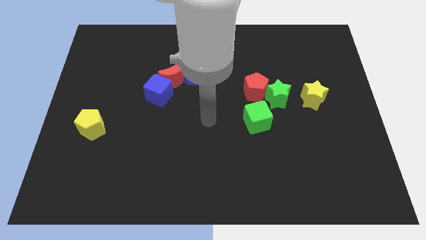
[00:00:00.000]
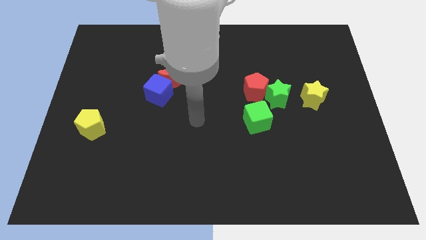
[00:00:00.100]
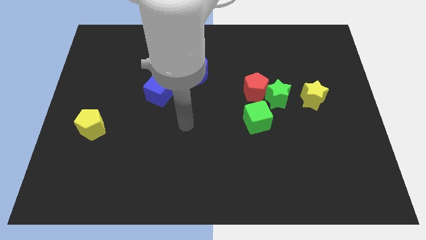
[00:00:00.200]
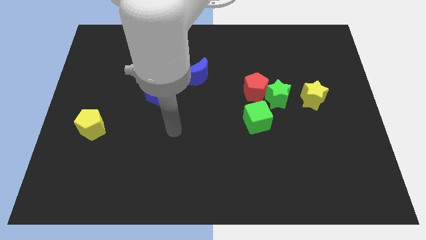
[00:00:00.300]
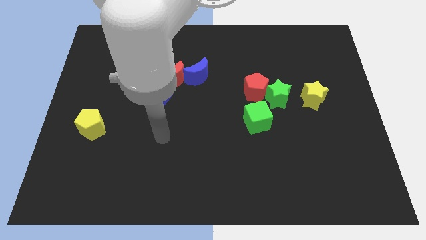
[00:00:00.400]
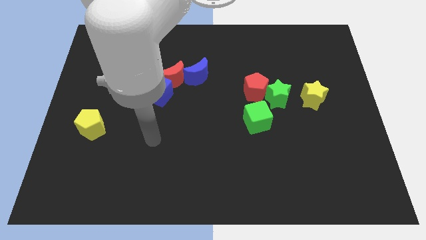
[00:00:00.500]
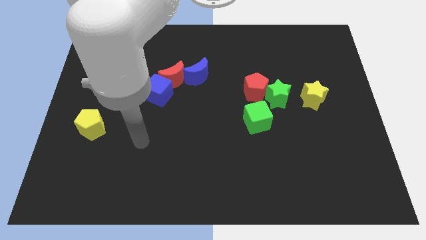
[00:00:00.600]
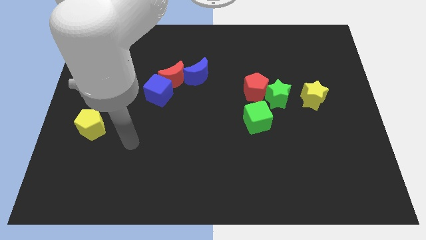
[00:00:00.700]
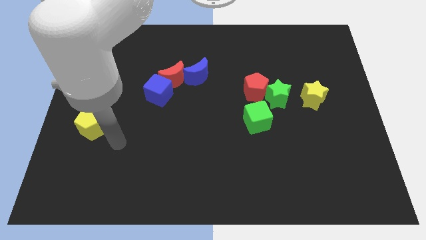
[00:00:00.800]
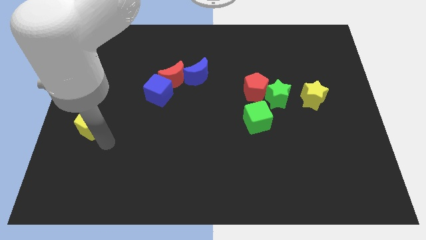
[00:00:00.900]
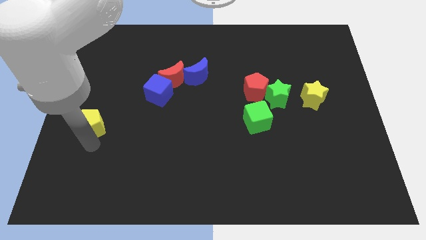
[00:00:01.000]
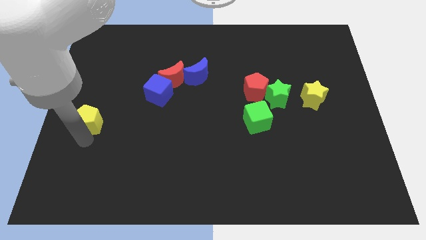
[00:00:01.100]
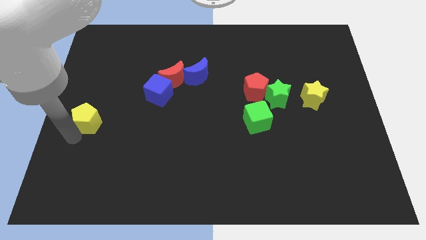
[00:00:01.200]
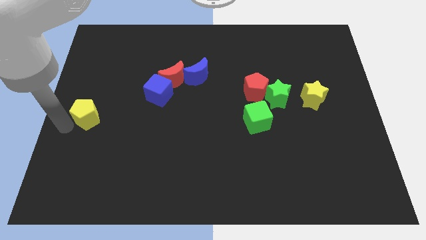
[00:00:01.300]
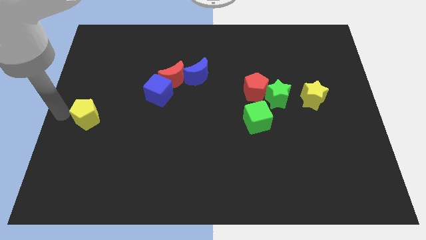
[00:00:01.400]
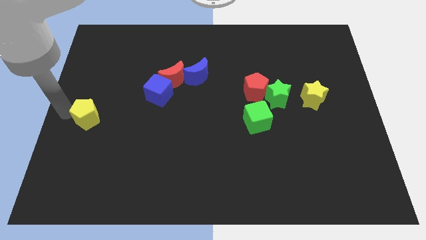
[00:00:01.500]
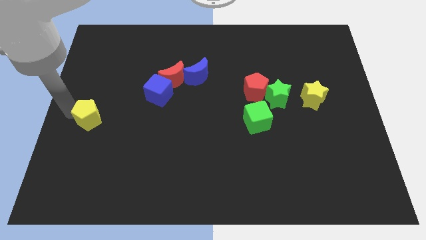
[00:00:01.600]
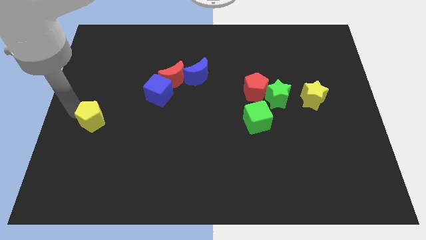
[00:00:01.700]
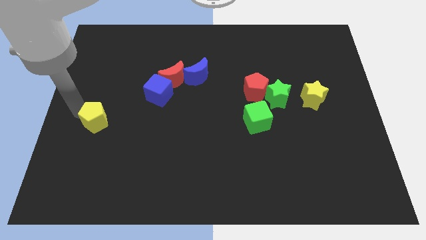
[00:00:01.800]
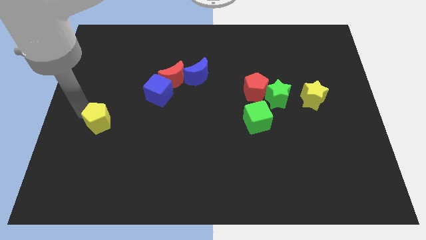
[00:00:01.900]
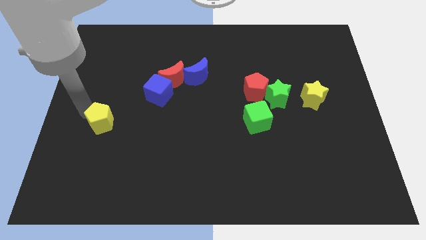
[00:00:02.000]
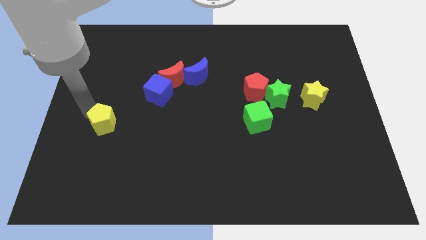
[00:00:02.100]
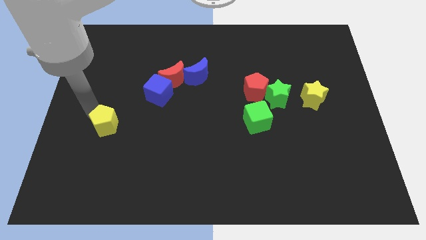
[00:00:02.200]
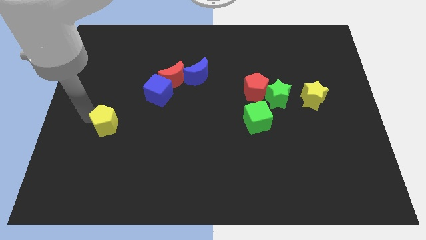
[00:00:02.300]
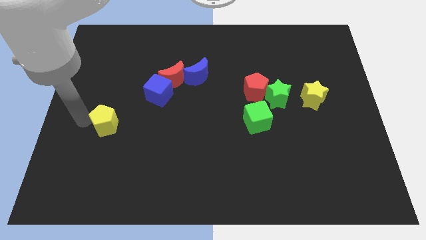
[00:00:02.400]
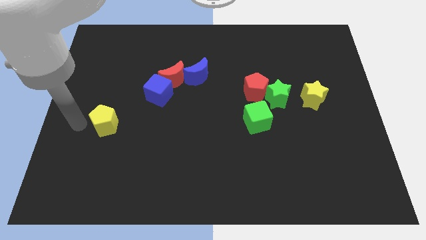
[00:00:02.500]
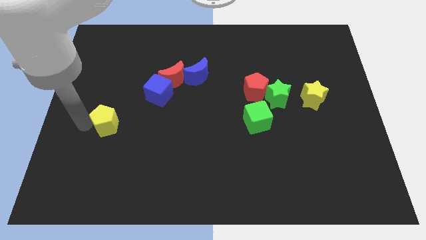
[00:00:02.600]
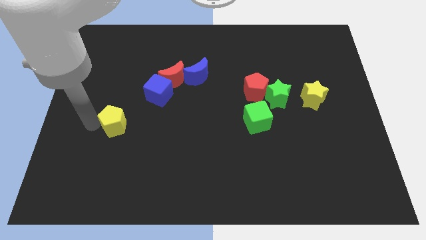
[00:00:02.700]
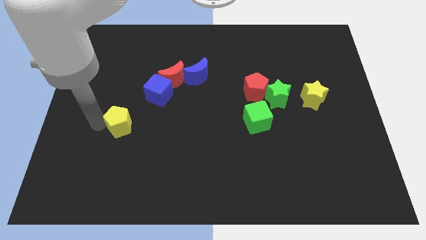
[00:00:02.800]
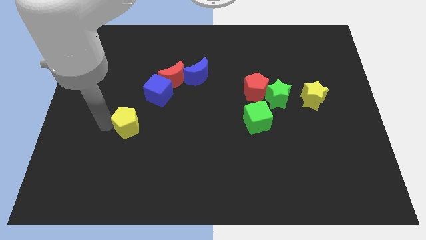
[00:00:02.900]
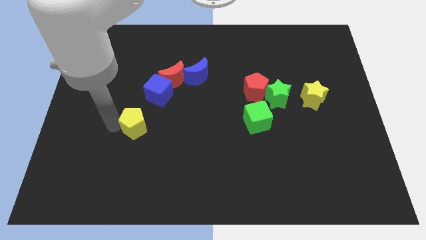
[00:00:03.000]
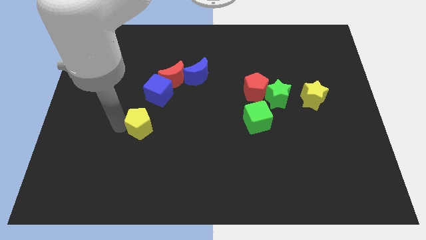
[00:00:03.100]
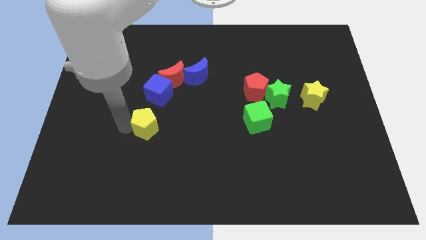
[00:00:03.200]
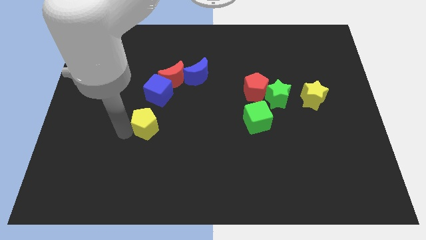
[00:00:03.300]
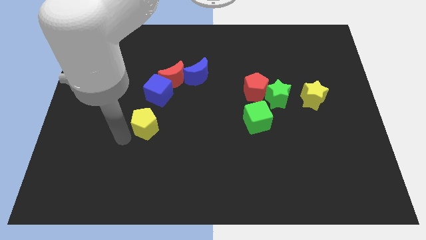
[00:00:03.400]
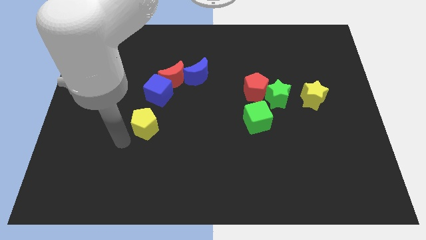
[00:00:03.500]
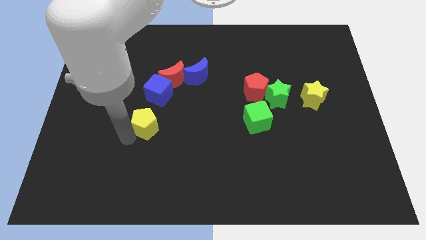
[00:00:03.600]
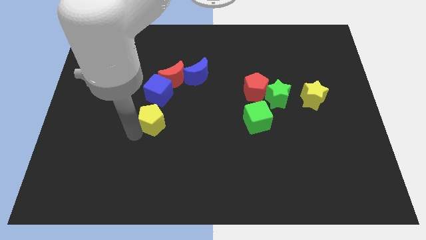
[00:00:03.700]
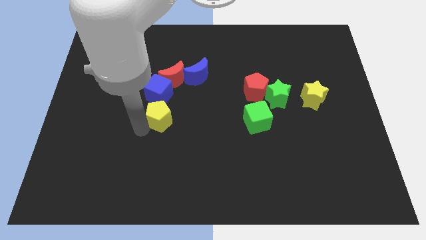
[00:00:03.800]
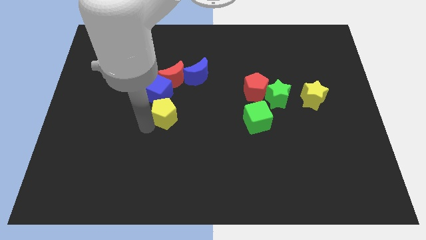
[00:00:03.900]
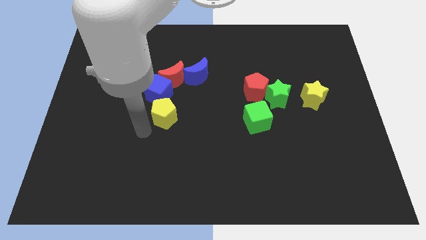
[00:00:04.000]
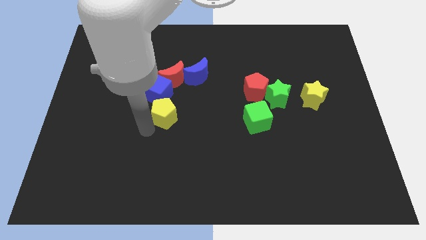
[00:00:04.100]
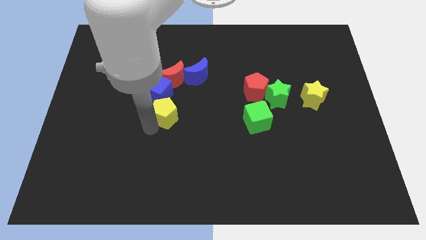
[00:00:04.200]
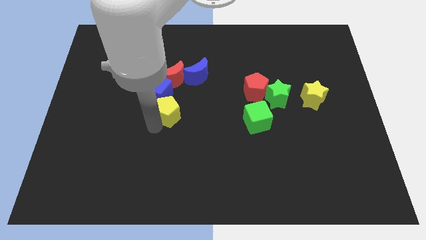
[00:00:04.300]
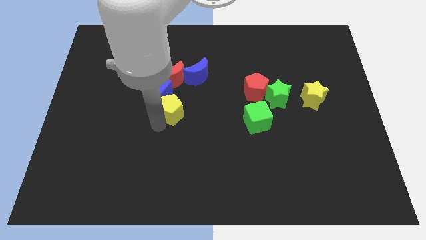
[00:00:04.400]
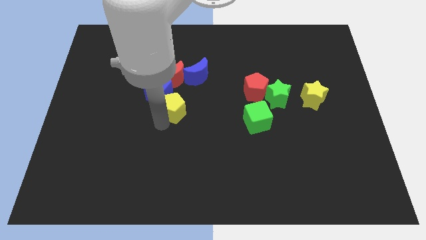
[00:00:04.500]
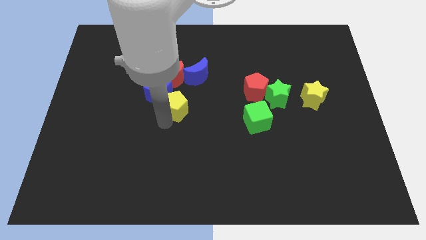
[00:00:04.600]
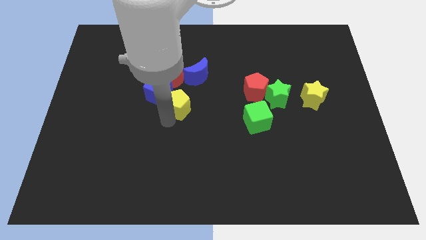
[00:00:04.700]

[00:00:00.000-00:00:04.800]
put the yellow pentagon to the bottom right of the red moon

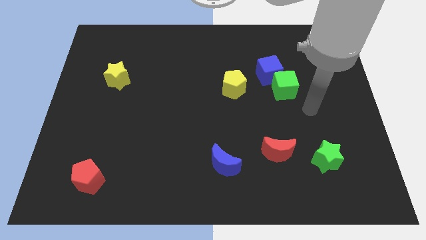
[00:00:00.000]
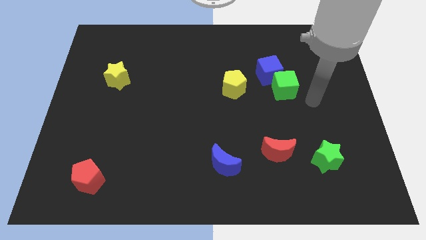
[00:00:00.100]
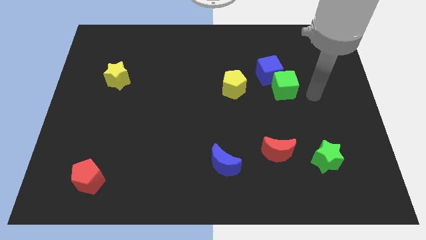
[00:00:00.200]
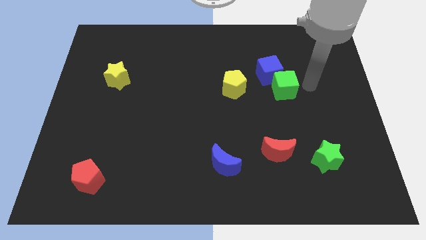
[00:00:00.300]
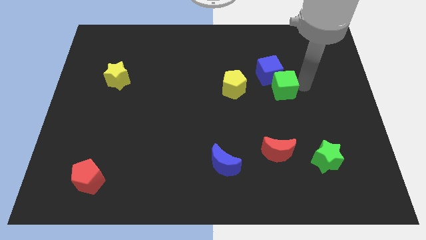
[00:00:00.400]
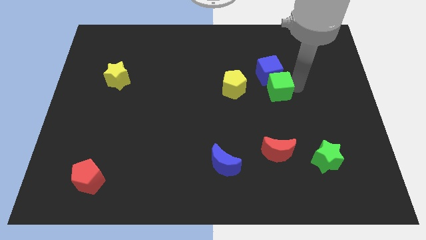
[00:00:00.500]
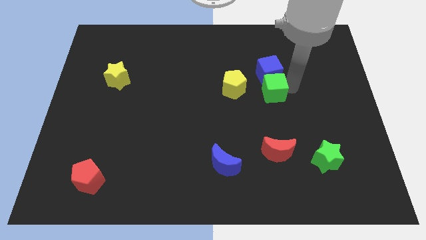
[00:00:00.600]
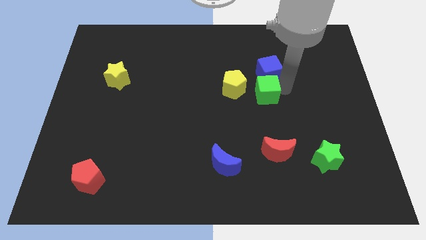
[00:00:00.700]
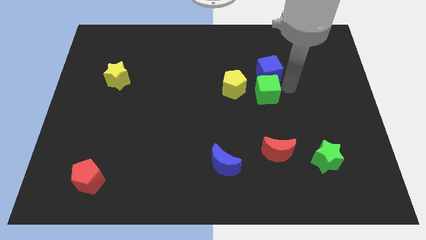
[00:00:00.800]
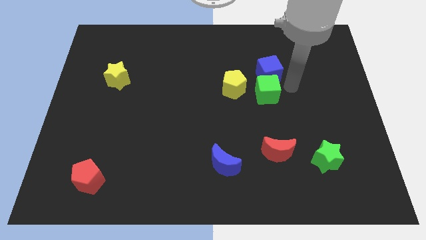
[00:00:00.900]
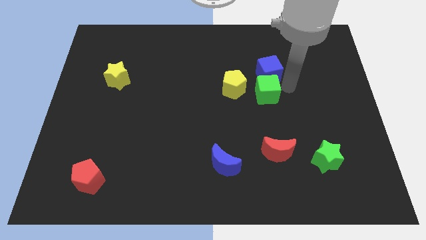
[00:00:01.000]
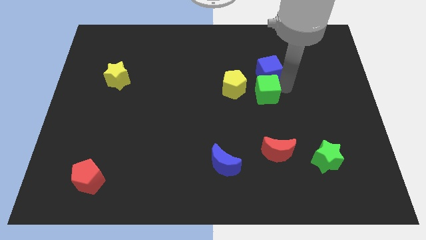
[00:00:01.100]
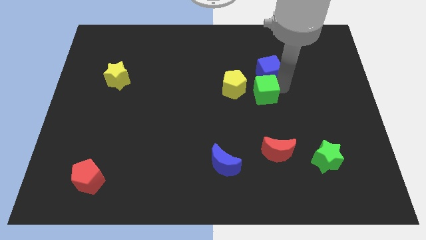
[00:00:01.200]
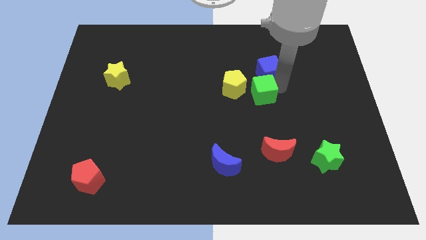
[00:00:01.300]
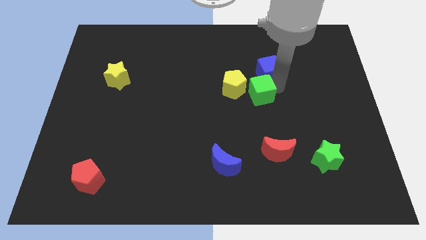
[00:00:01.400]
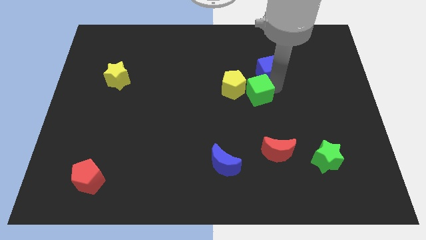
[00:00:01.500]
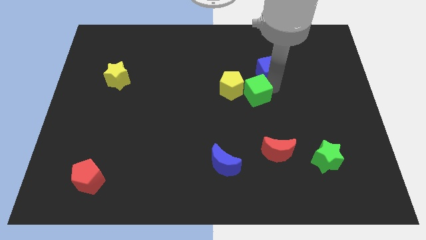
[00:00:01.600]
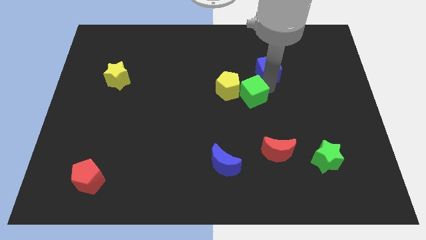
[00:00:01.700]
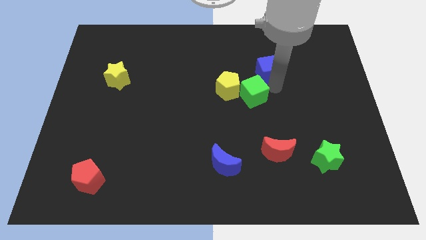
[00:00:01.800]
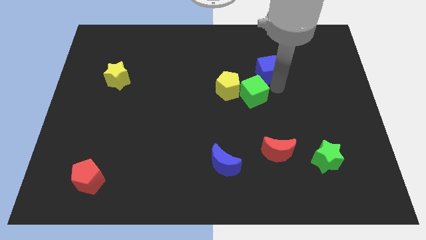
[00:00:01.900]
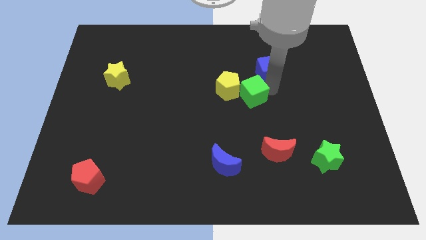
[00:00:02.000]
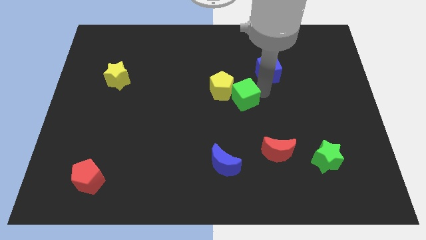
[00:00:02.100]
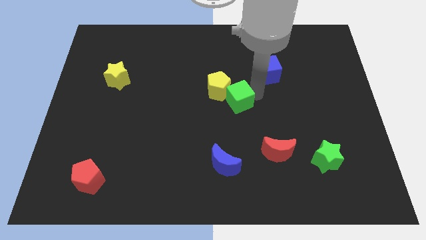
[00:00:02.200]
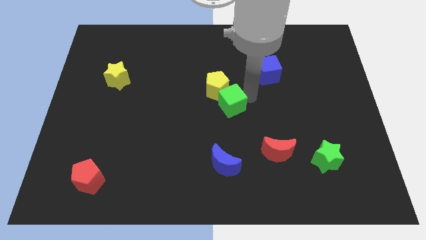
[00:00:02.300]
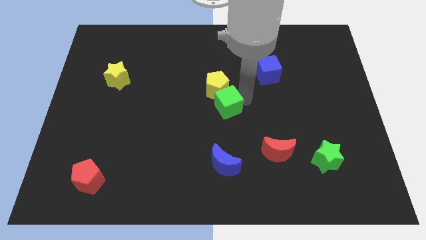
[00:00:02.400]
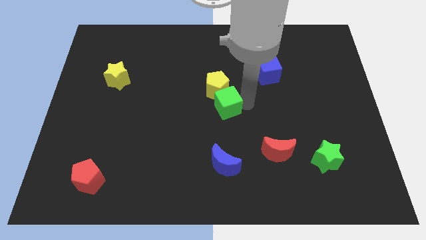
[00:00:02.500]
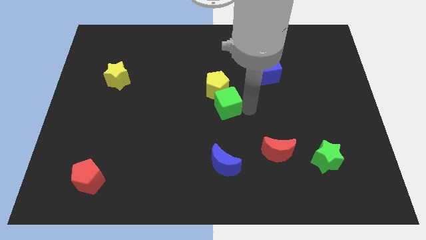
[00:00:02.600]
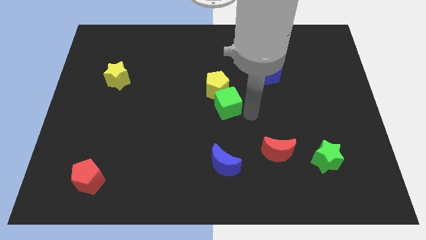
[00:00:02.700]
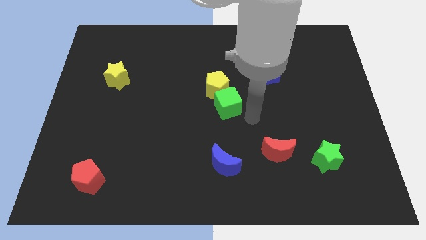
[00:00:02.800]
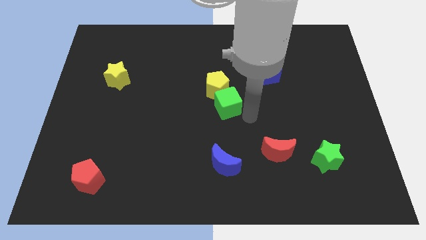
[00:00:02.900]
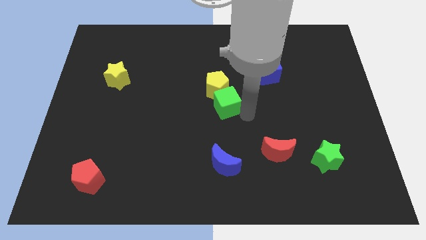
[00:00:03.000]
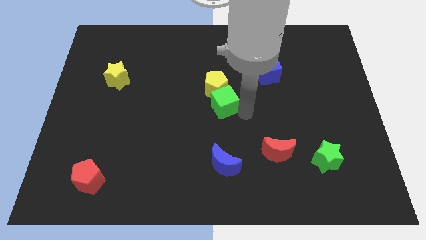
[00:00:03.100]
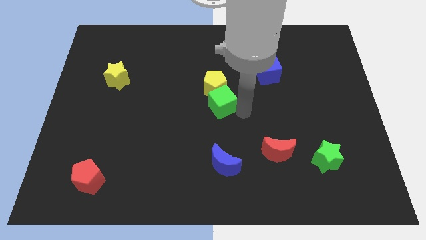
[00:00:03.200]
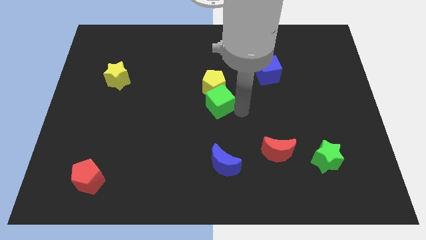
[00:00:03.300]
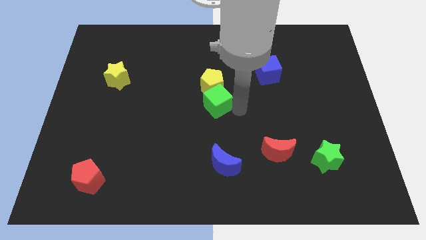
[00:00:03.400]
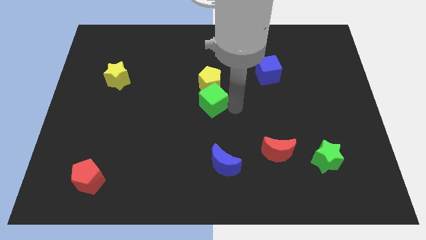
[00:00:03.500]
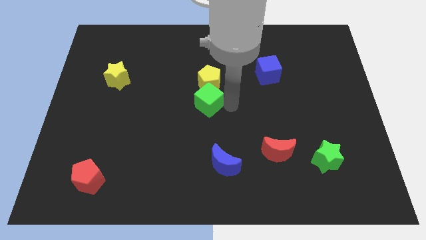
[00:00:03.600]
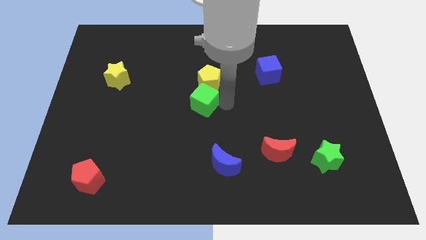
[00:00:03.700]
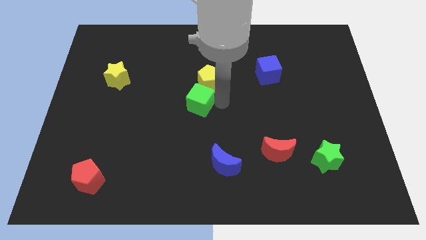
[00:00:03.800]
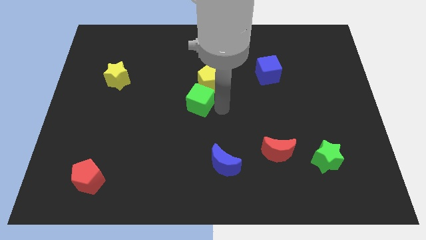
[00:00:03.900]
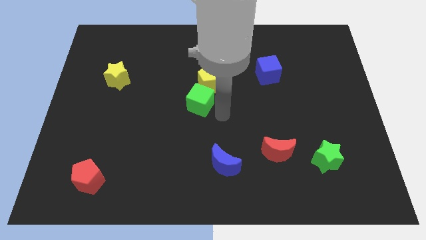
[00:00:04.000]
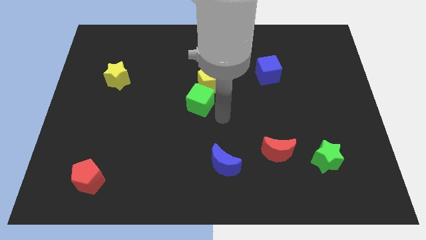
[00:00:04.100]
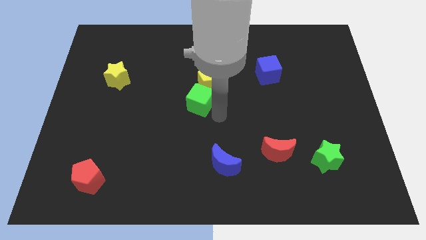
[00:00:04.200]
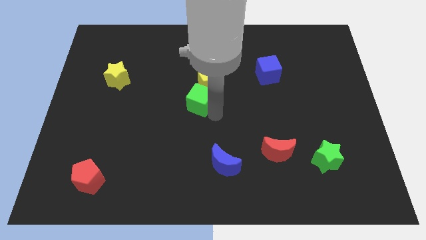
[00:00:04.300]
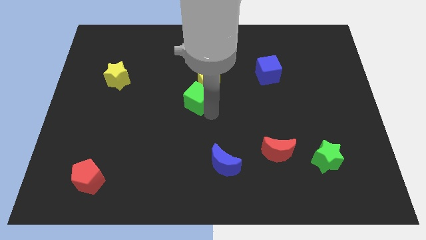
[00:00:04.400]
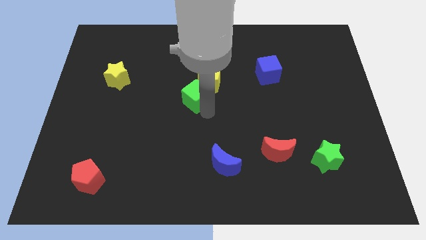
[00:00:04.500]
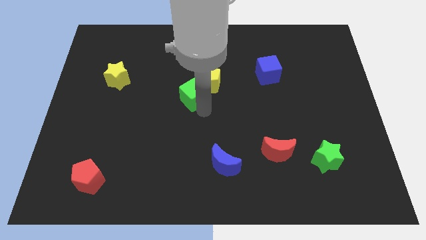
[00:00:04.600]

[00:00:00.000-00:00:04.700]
push the green cube just left of the yellow pentagon
